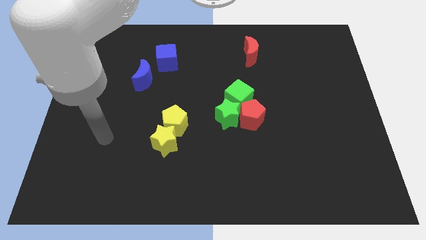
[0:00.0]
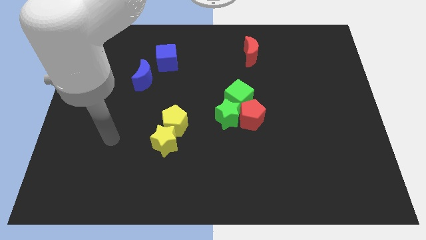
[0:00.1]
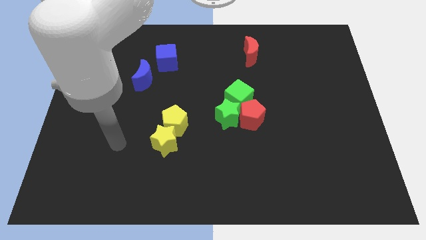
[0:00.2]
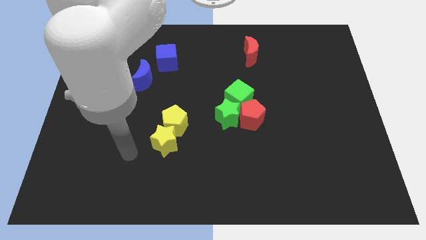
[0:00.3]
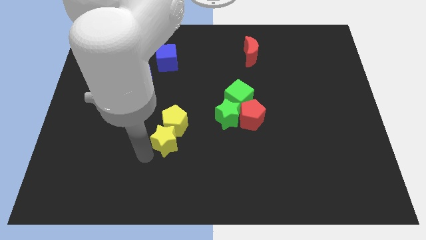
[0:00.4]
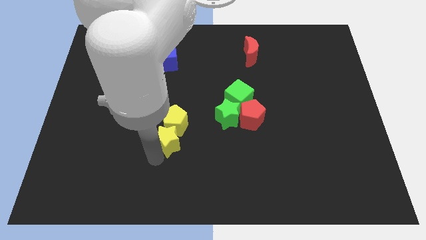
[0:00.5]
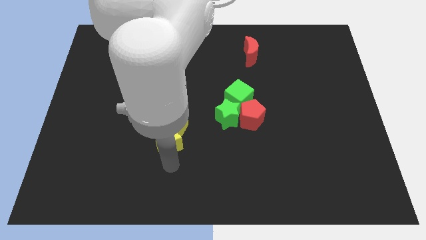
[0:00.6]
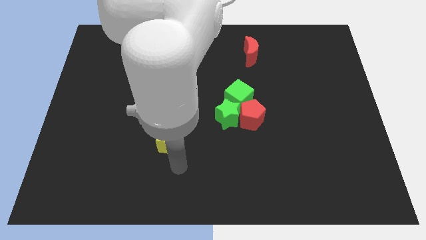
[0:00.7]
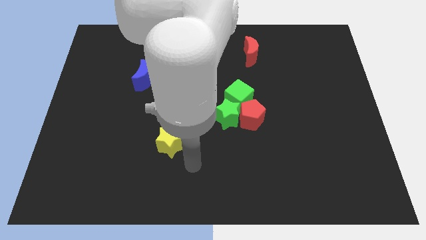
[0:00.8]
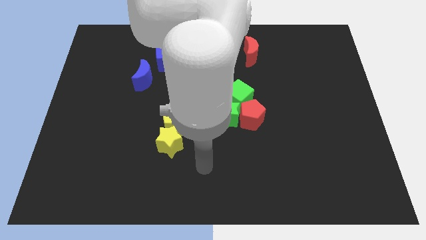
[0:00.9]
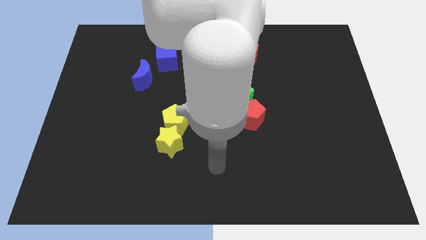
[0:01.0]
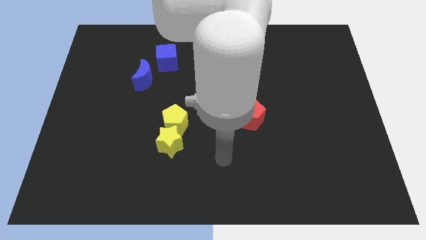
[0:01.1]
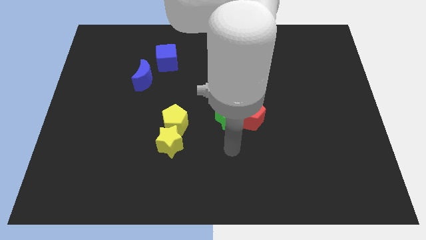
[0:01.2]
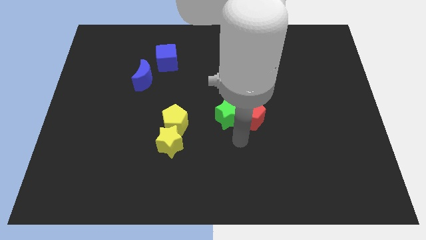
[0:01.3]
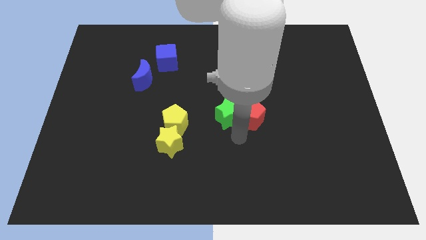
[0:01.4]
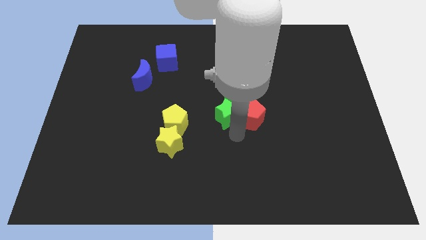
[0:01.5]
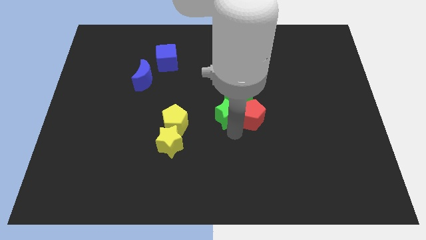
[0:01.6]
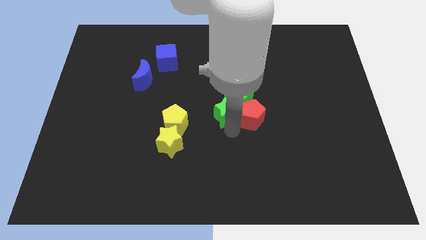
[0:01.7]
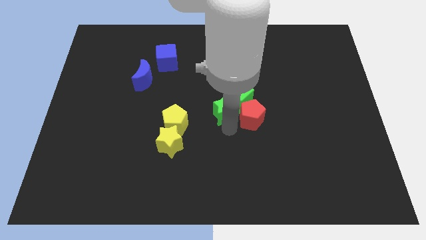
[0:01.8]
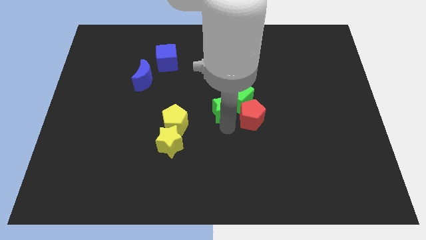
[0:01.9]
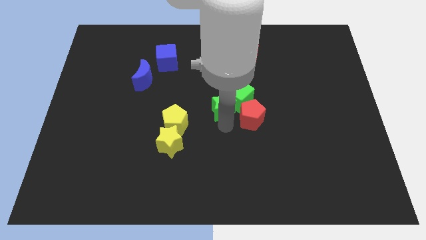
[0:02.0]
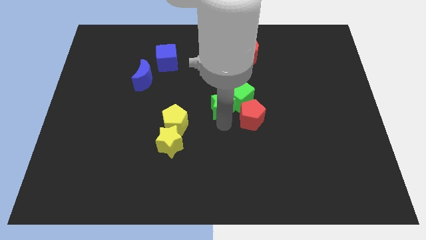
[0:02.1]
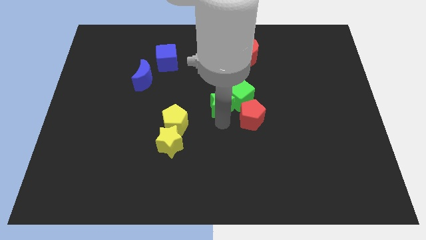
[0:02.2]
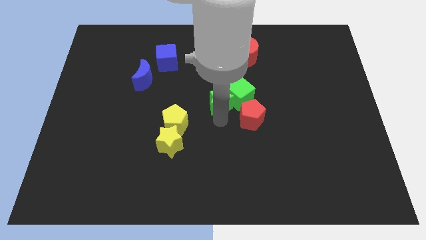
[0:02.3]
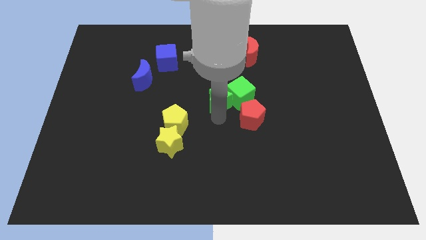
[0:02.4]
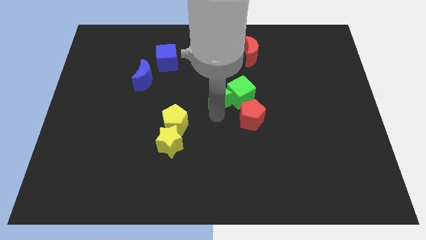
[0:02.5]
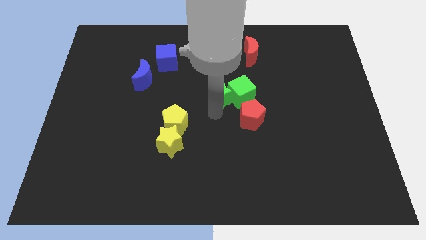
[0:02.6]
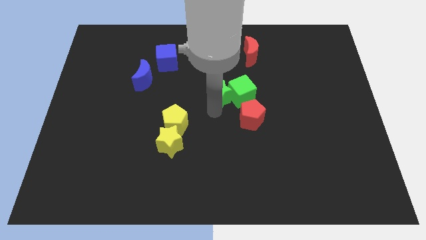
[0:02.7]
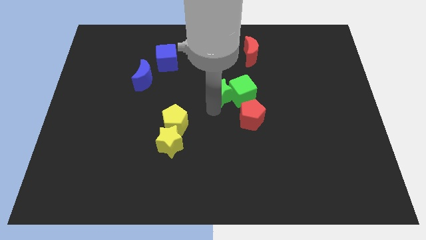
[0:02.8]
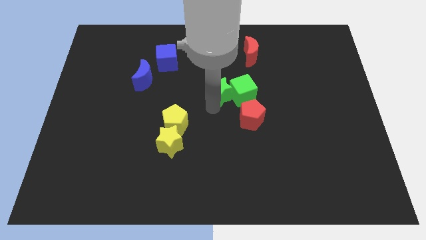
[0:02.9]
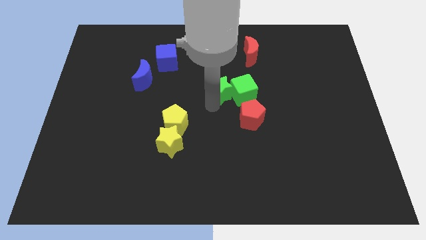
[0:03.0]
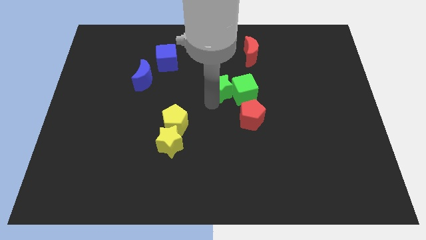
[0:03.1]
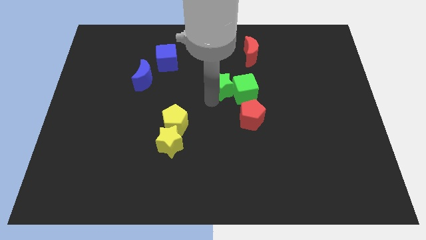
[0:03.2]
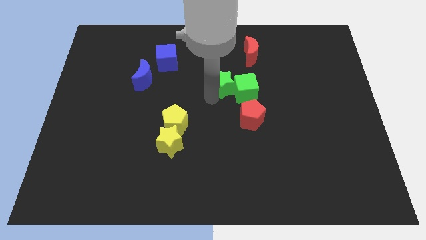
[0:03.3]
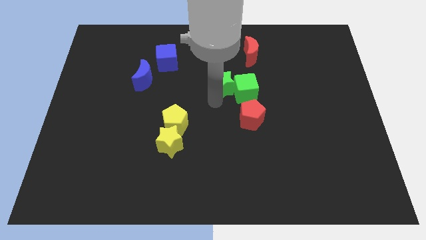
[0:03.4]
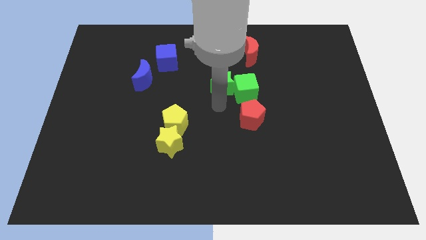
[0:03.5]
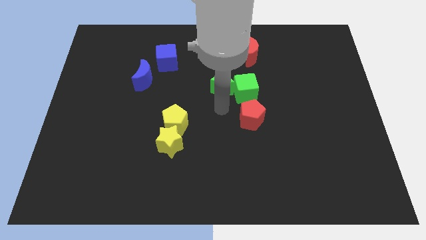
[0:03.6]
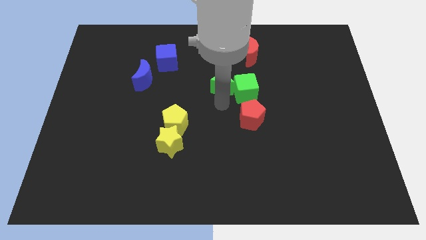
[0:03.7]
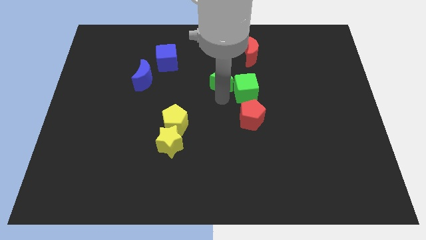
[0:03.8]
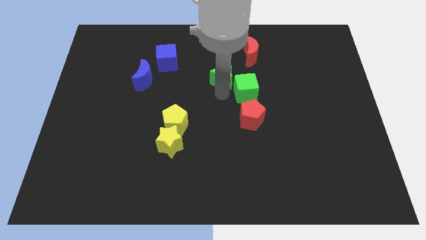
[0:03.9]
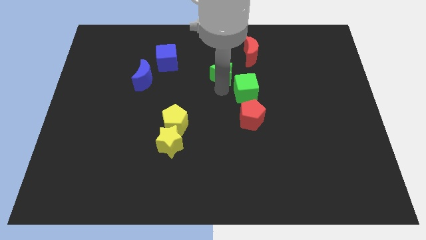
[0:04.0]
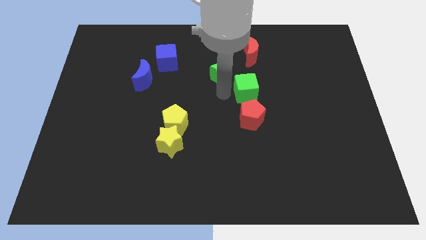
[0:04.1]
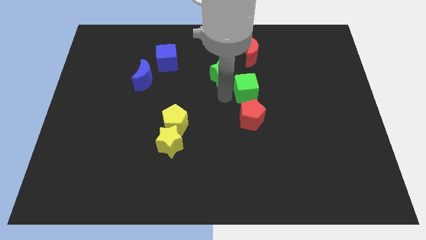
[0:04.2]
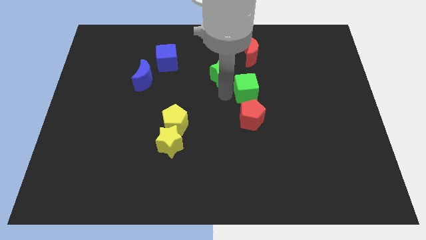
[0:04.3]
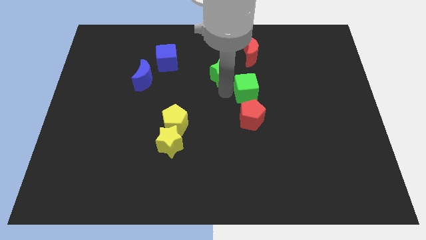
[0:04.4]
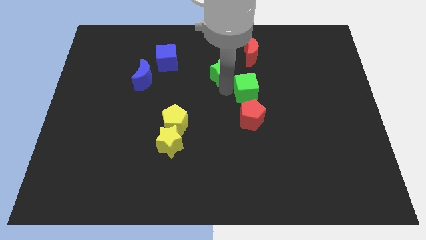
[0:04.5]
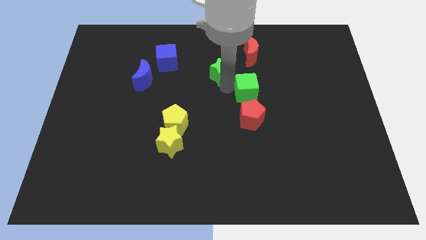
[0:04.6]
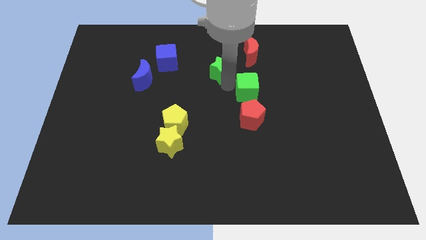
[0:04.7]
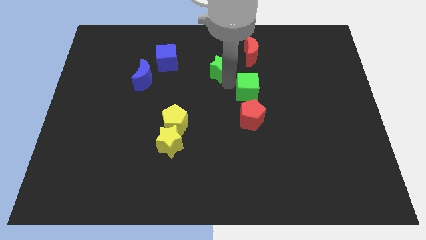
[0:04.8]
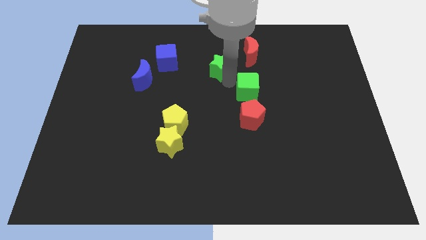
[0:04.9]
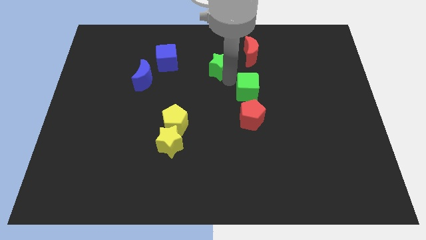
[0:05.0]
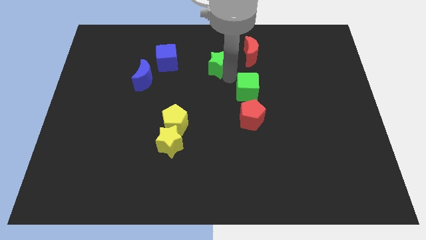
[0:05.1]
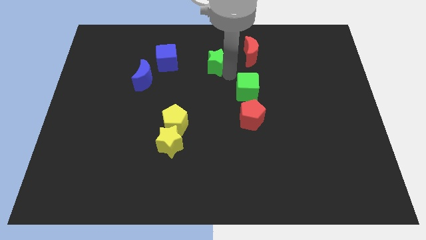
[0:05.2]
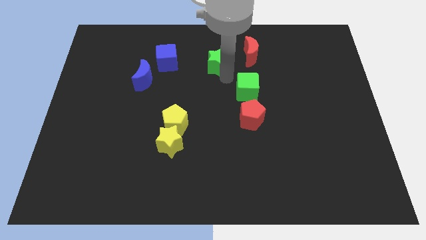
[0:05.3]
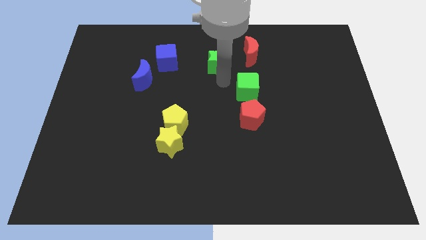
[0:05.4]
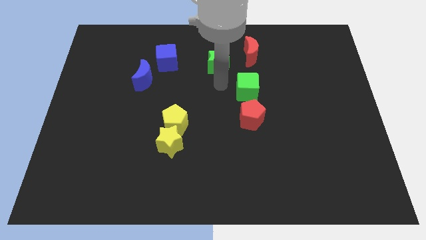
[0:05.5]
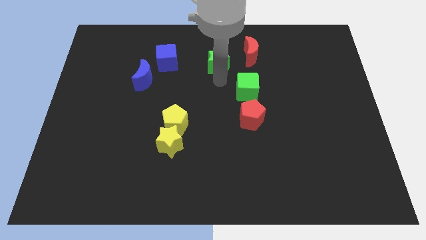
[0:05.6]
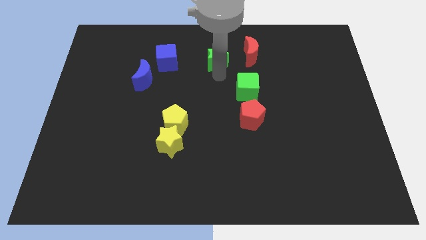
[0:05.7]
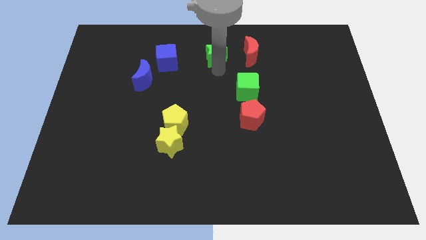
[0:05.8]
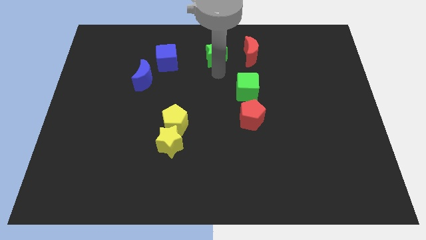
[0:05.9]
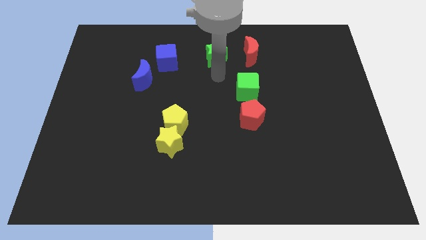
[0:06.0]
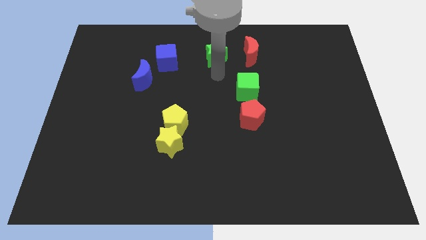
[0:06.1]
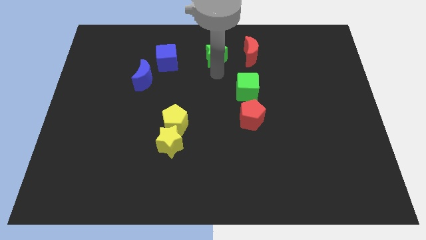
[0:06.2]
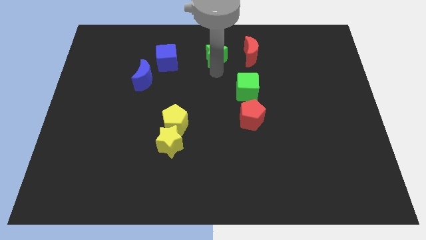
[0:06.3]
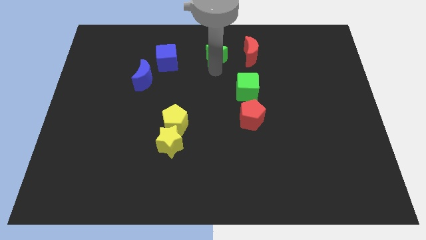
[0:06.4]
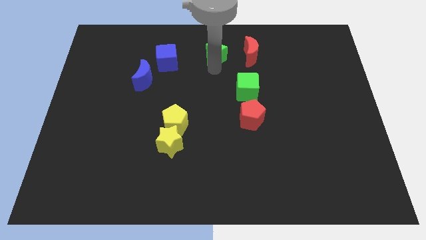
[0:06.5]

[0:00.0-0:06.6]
slide the green star to the top

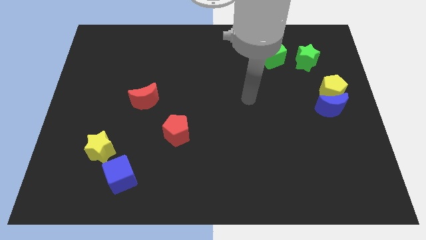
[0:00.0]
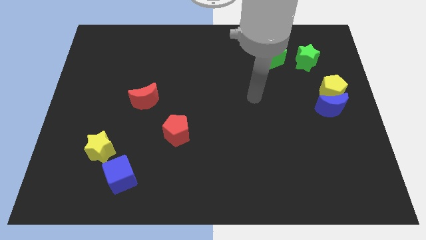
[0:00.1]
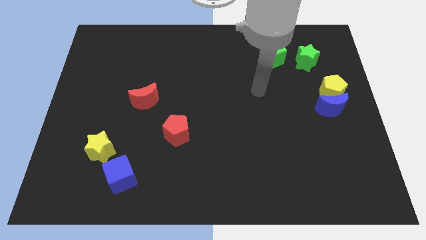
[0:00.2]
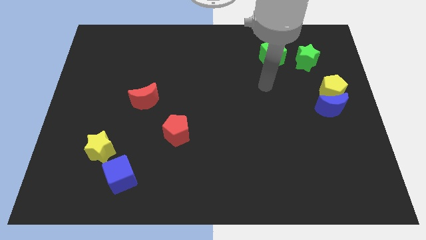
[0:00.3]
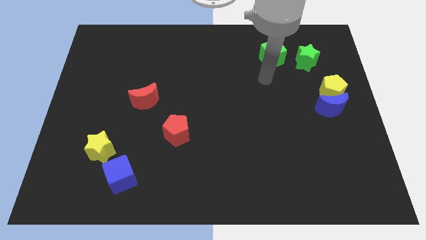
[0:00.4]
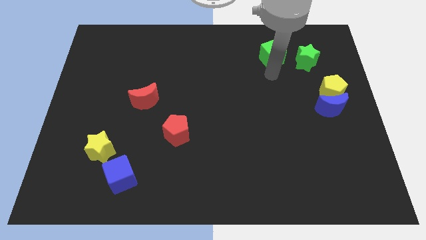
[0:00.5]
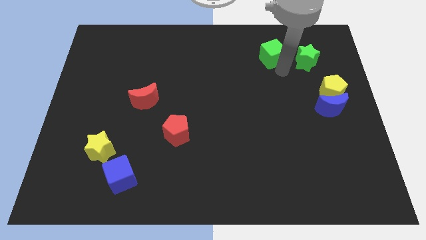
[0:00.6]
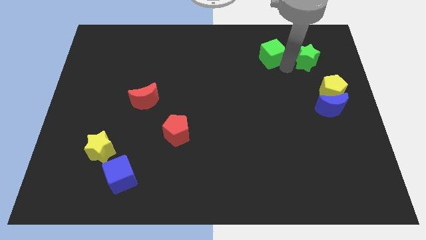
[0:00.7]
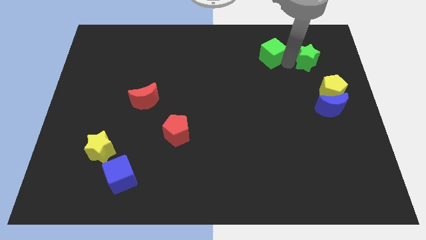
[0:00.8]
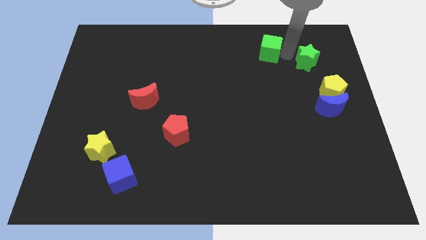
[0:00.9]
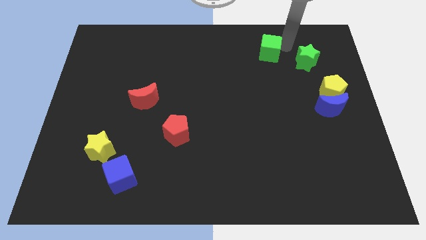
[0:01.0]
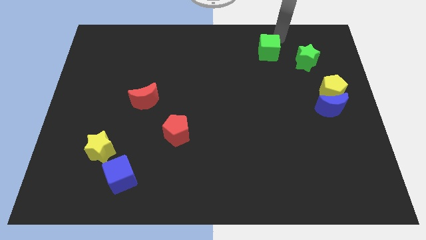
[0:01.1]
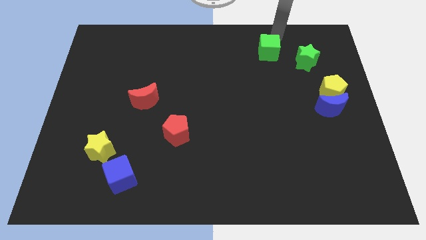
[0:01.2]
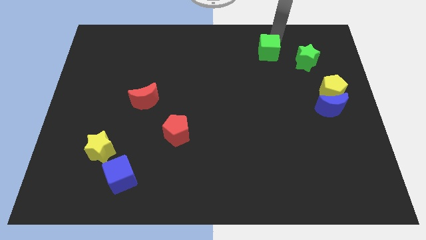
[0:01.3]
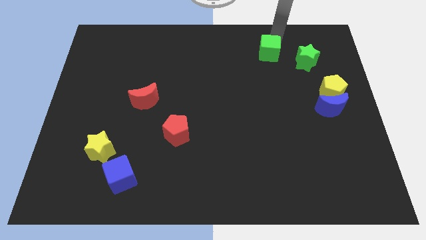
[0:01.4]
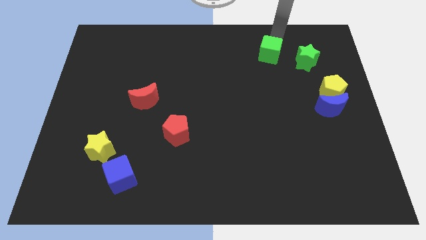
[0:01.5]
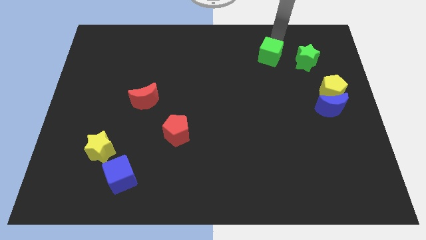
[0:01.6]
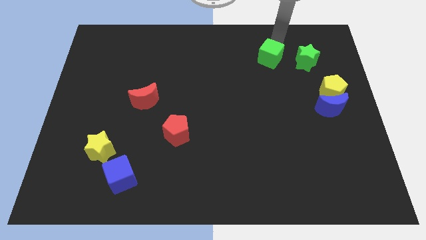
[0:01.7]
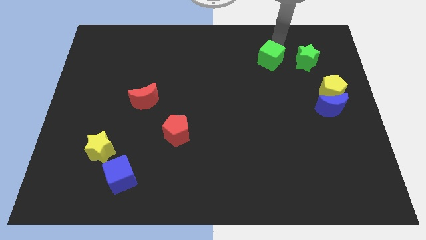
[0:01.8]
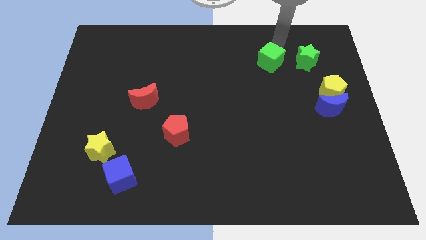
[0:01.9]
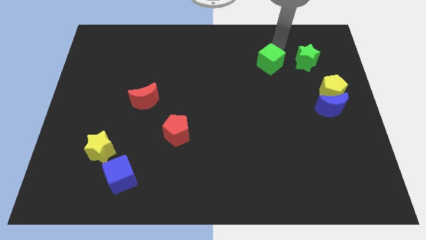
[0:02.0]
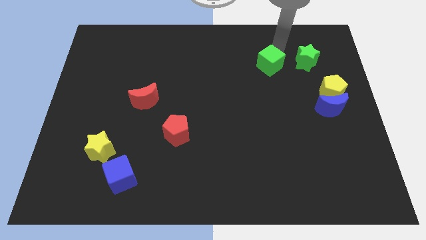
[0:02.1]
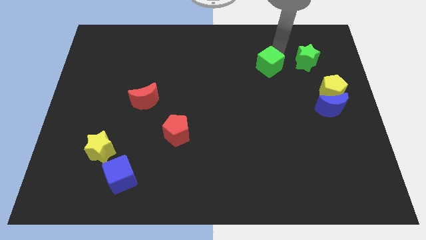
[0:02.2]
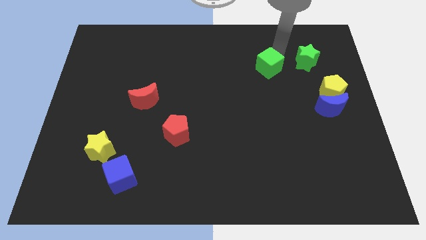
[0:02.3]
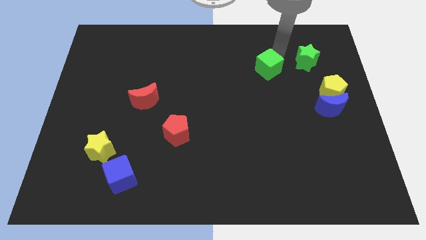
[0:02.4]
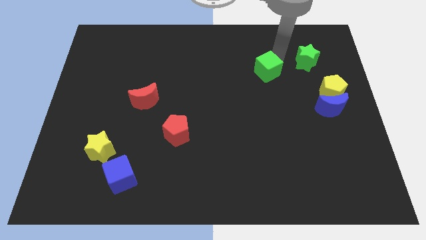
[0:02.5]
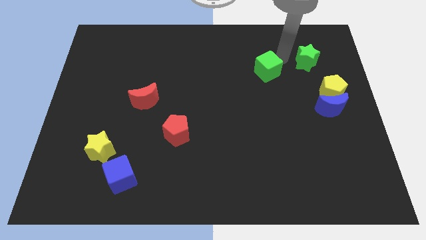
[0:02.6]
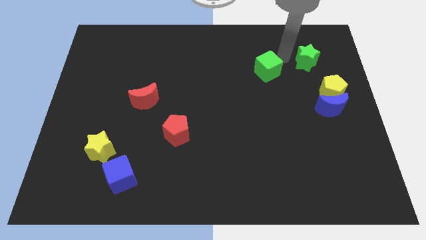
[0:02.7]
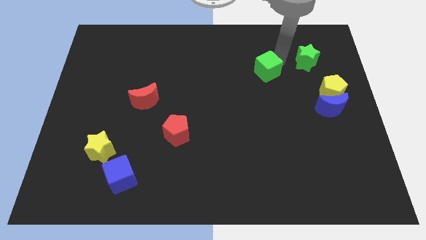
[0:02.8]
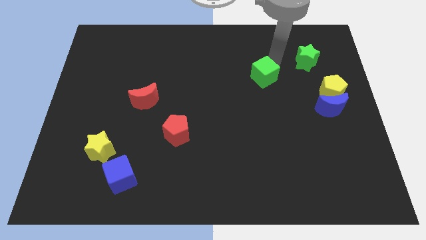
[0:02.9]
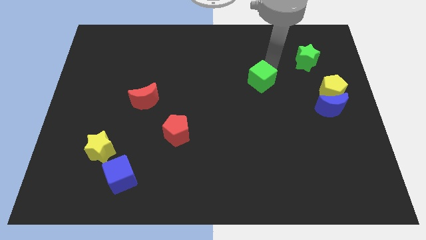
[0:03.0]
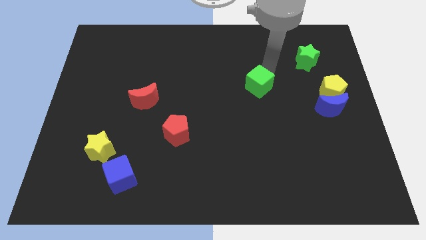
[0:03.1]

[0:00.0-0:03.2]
move the green cube to the middle of the board
